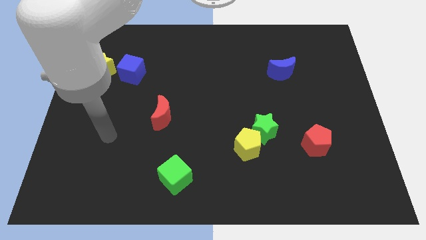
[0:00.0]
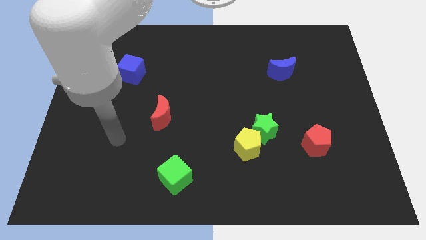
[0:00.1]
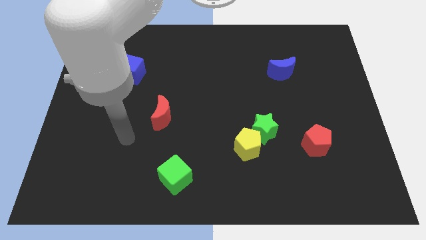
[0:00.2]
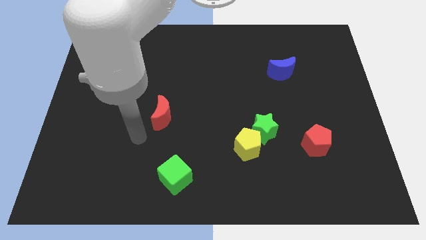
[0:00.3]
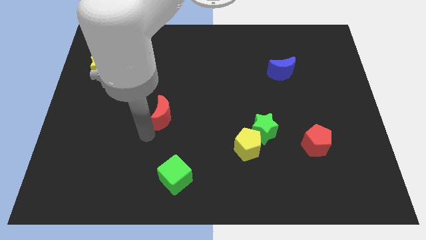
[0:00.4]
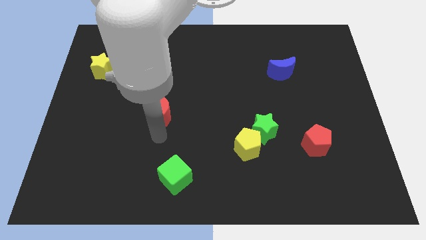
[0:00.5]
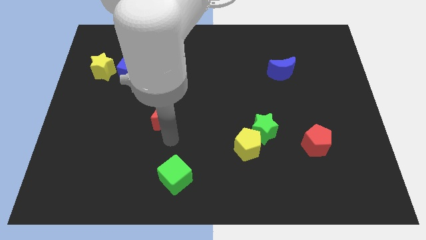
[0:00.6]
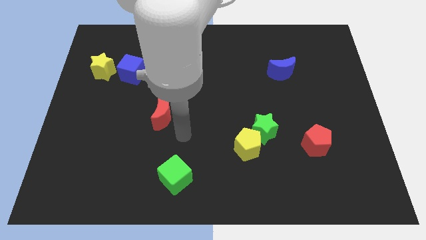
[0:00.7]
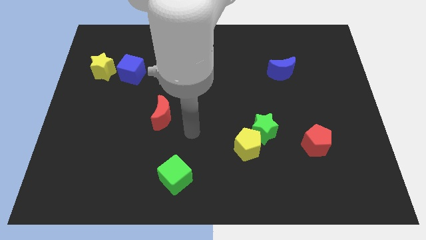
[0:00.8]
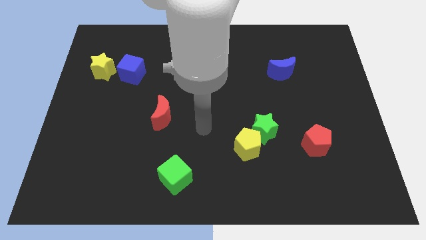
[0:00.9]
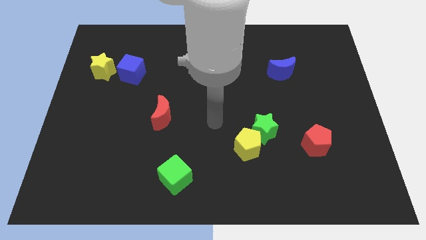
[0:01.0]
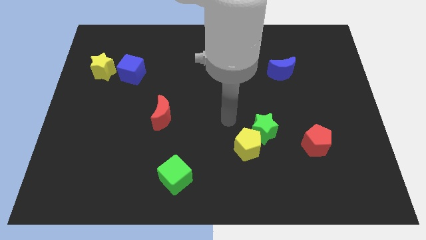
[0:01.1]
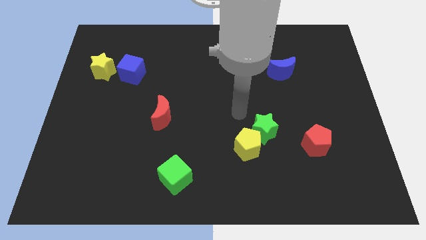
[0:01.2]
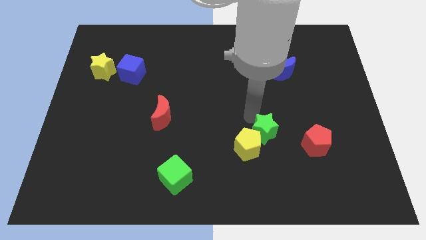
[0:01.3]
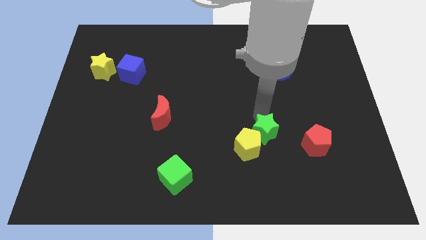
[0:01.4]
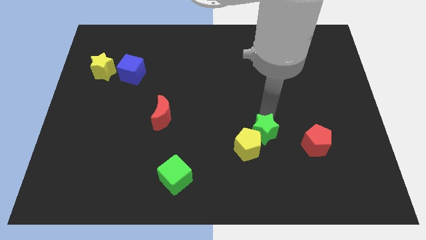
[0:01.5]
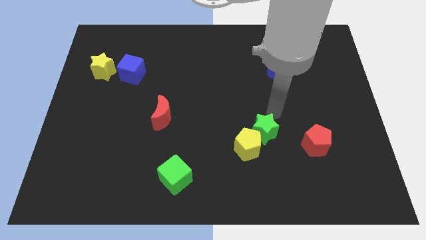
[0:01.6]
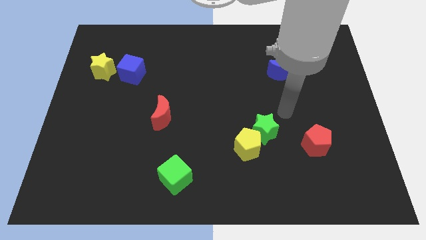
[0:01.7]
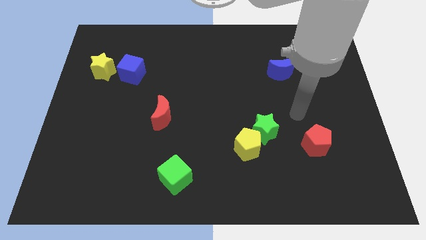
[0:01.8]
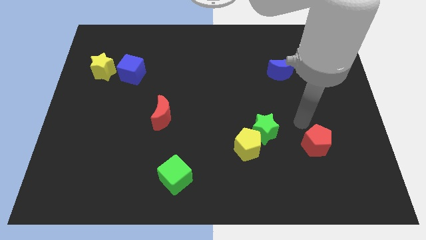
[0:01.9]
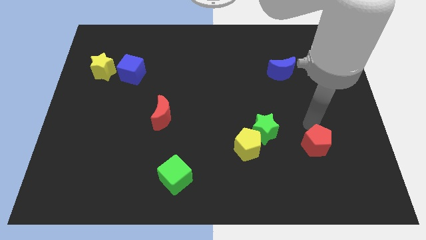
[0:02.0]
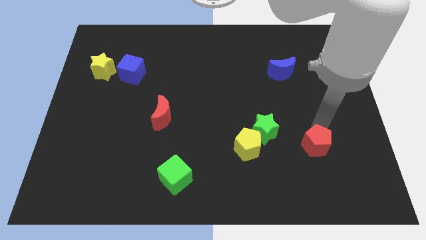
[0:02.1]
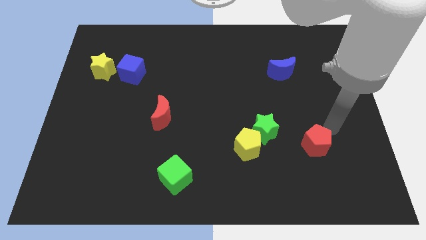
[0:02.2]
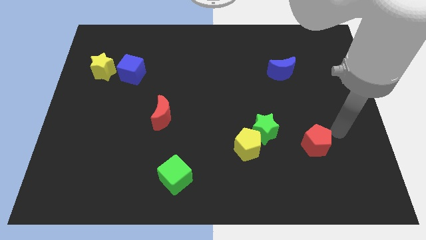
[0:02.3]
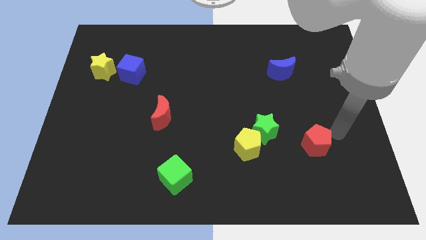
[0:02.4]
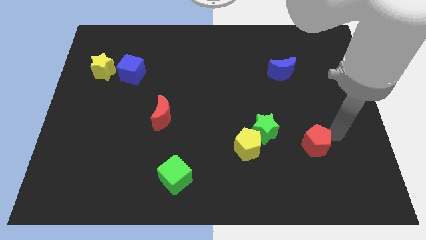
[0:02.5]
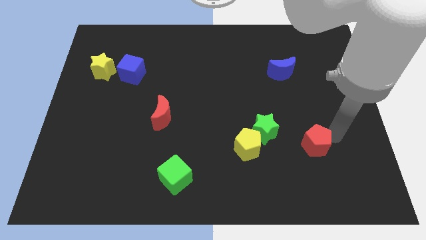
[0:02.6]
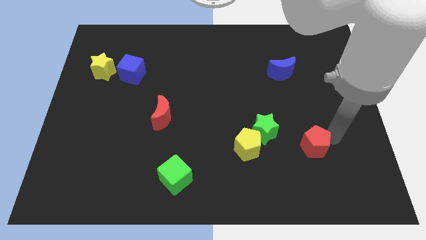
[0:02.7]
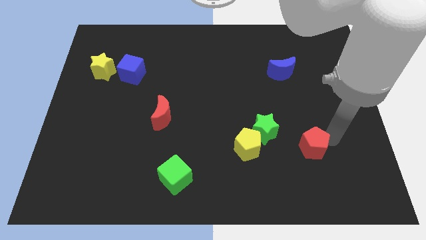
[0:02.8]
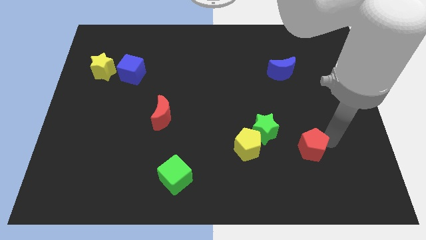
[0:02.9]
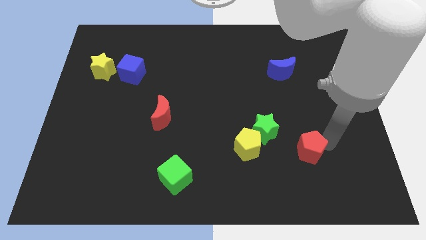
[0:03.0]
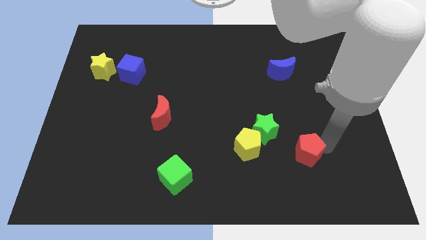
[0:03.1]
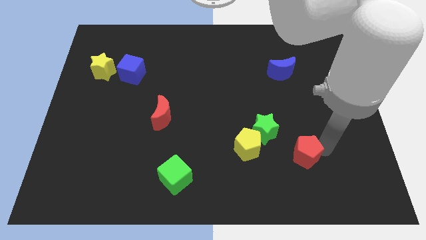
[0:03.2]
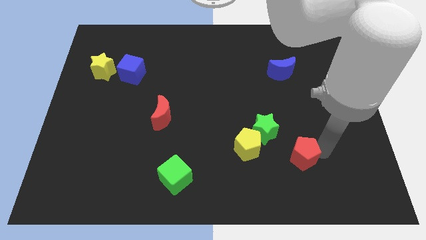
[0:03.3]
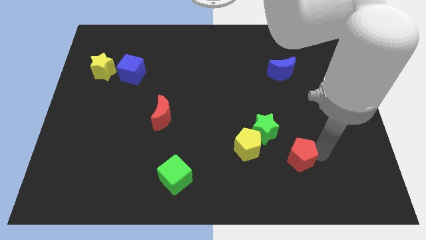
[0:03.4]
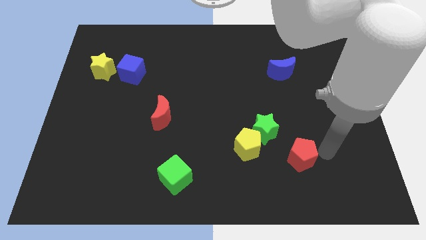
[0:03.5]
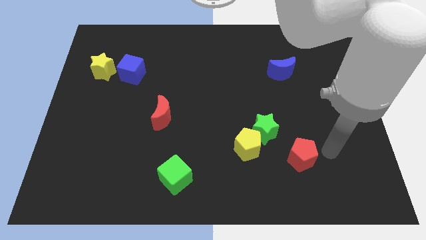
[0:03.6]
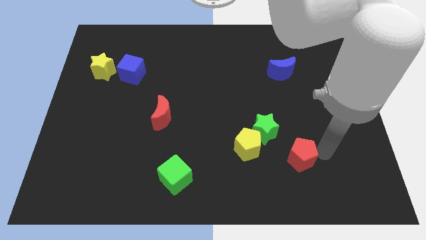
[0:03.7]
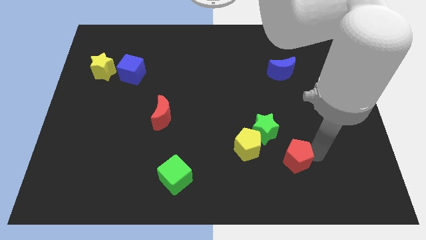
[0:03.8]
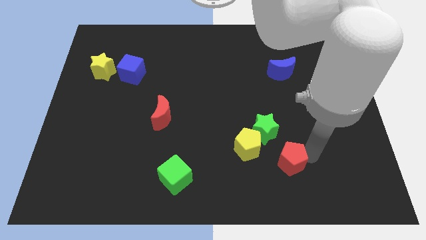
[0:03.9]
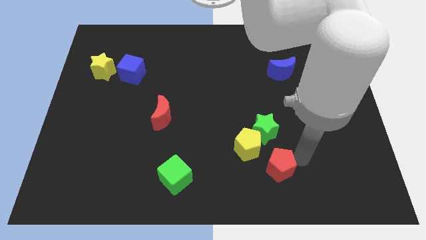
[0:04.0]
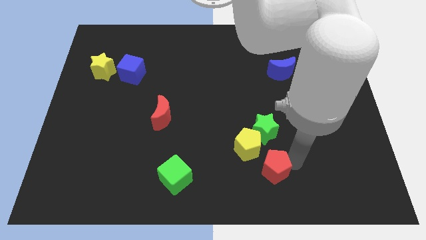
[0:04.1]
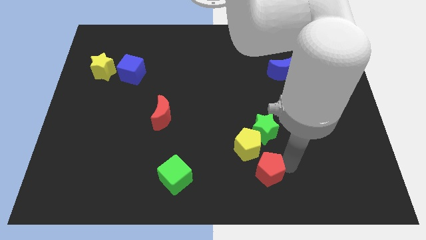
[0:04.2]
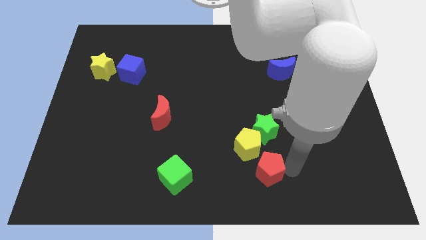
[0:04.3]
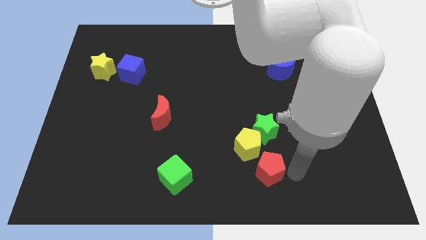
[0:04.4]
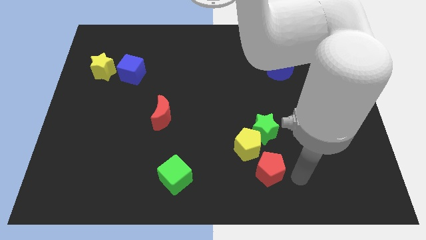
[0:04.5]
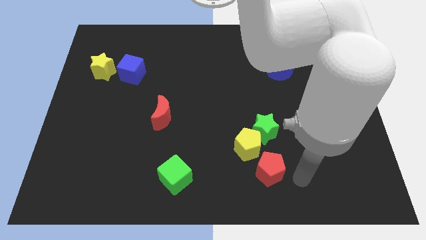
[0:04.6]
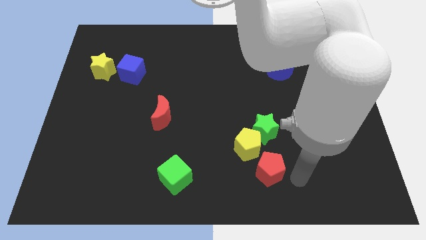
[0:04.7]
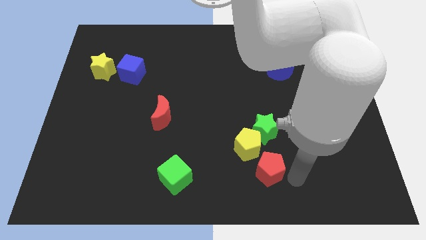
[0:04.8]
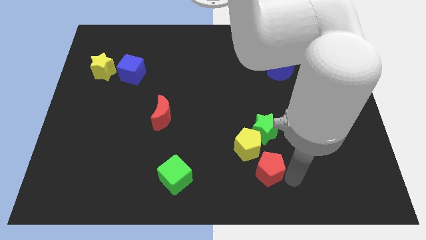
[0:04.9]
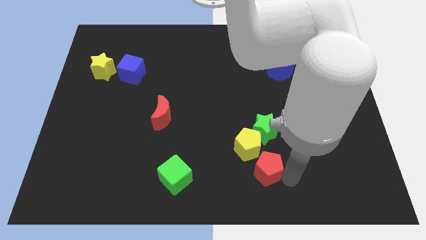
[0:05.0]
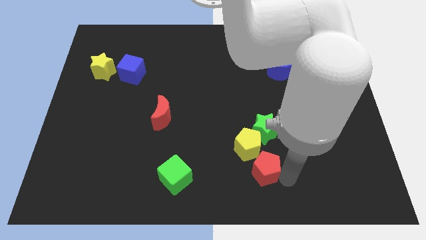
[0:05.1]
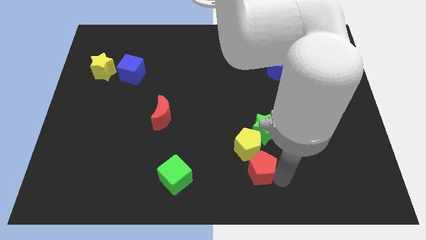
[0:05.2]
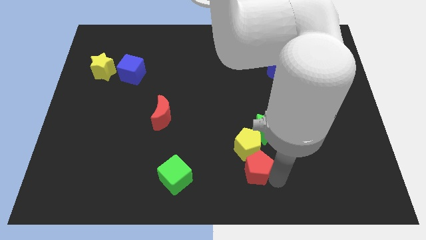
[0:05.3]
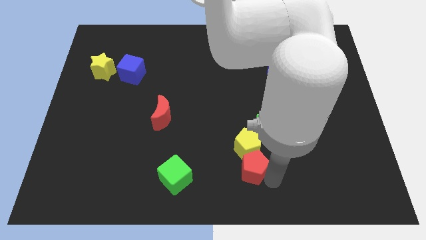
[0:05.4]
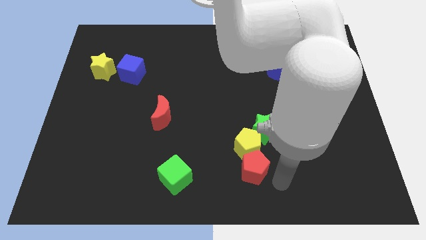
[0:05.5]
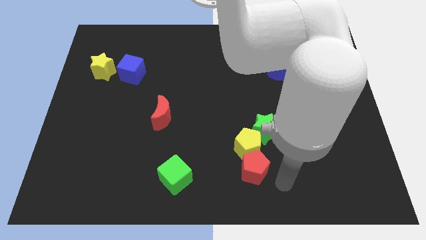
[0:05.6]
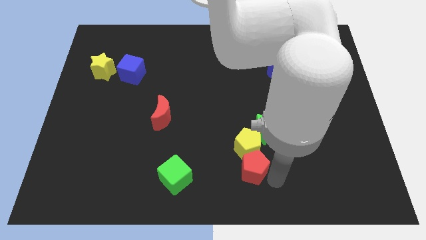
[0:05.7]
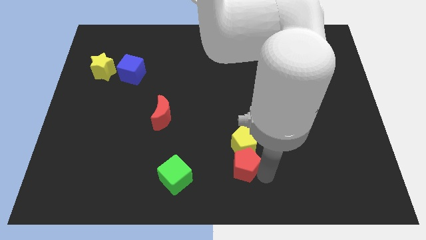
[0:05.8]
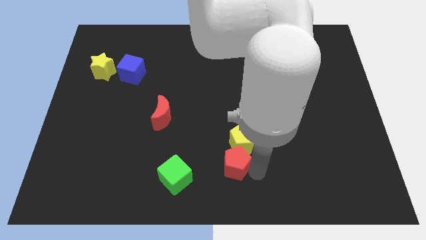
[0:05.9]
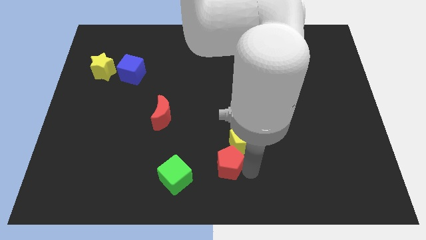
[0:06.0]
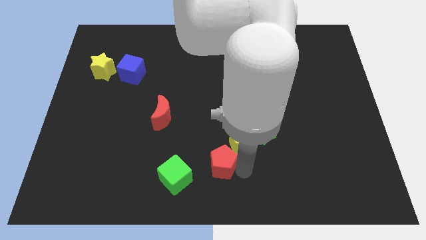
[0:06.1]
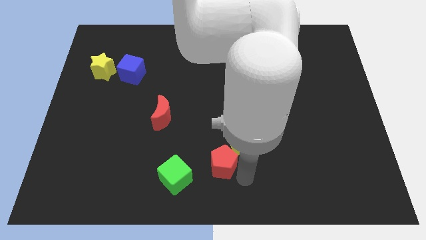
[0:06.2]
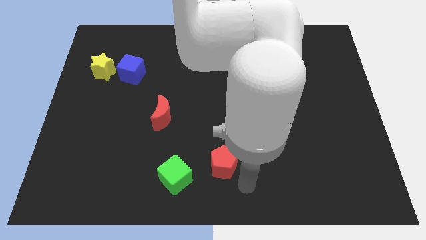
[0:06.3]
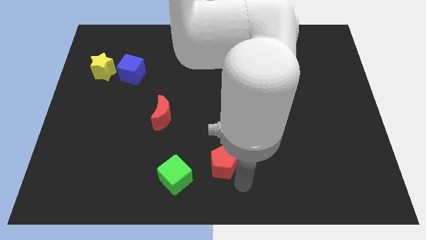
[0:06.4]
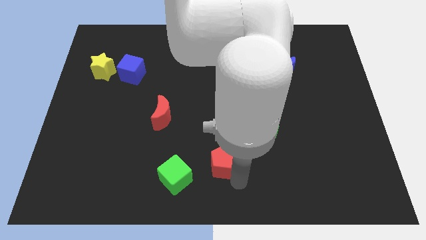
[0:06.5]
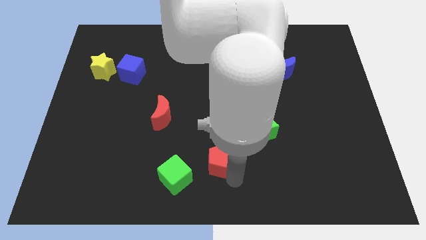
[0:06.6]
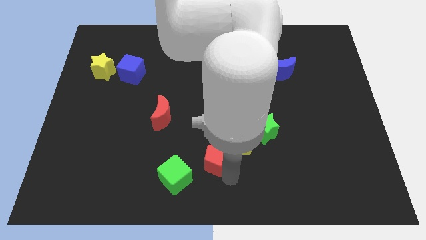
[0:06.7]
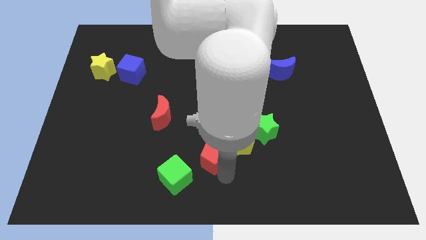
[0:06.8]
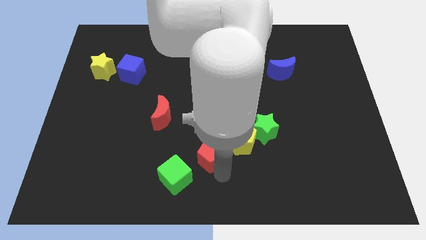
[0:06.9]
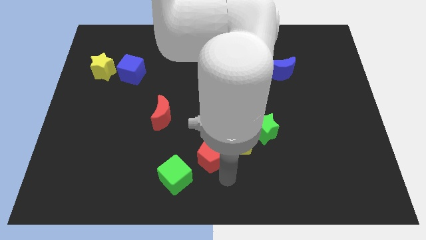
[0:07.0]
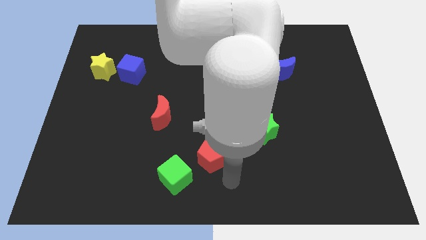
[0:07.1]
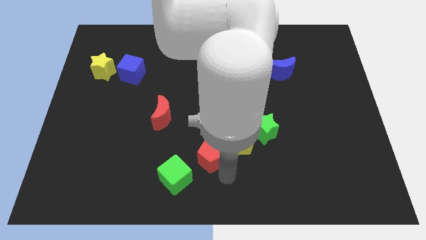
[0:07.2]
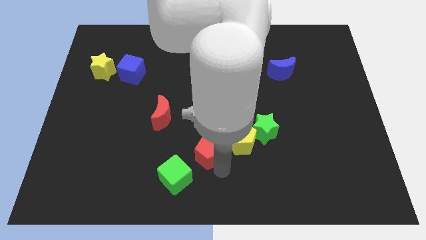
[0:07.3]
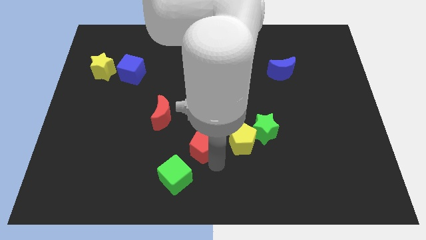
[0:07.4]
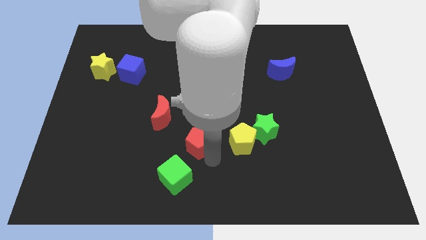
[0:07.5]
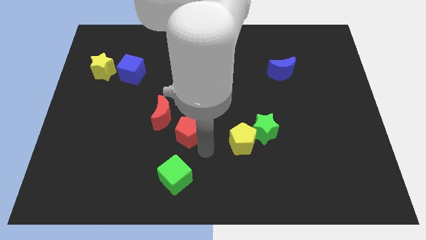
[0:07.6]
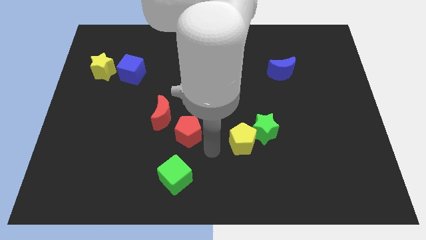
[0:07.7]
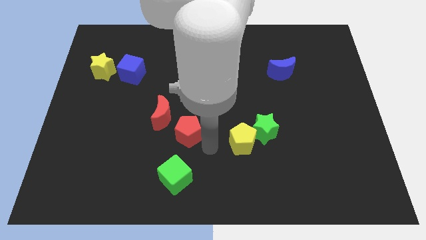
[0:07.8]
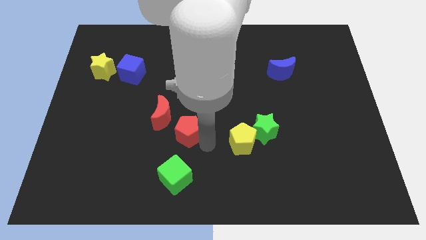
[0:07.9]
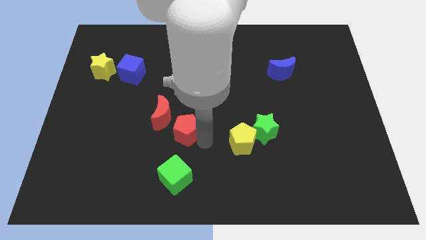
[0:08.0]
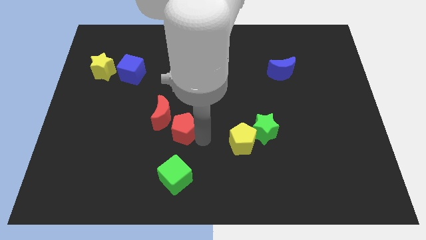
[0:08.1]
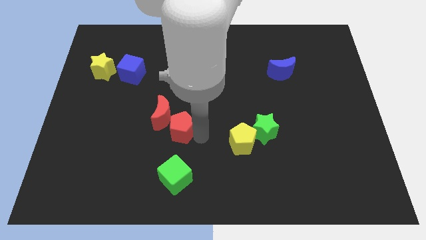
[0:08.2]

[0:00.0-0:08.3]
put the red pentagon close to the red moon
